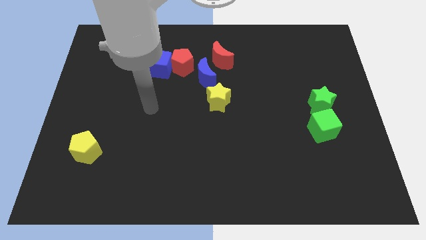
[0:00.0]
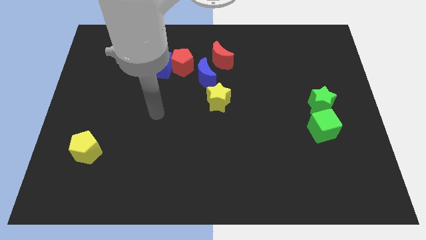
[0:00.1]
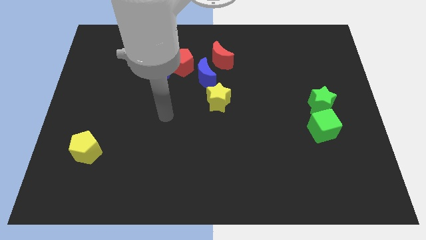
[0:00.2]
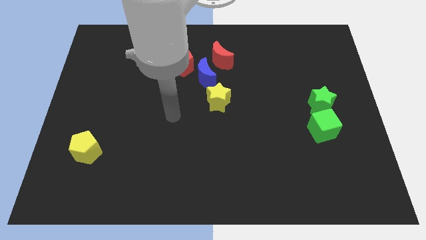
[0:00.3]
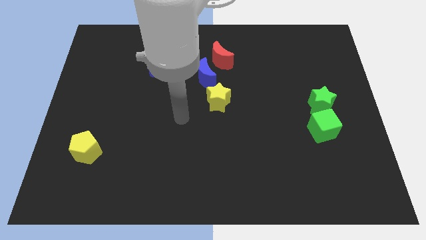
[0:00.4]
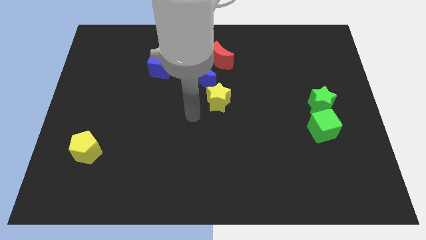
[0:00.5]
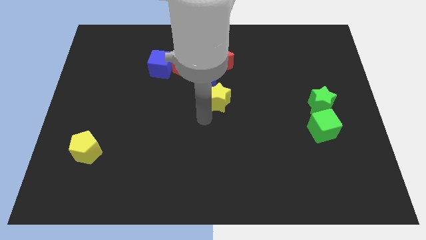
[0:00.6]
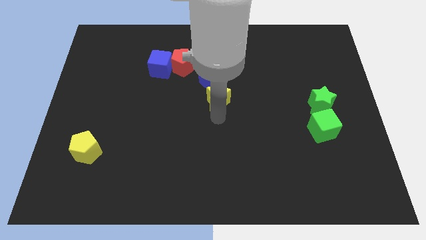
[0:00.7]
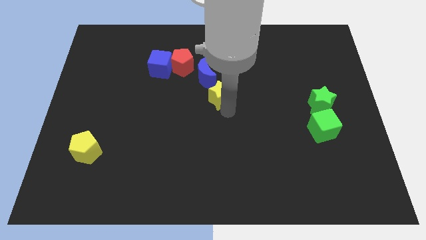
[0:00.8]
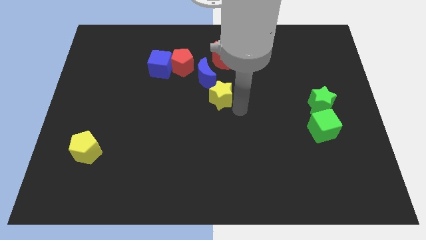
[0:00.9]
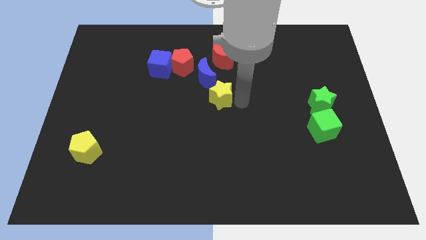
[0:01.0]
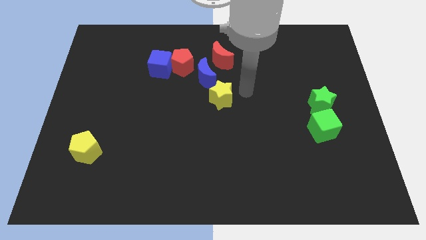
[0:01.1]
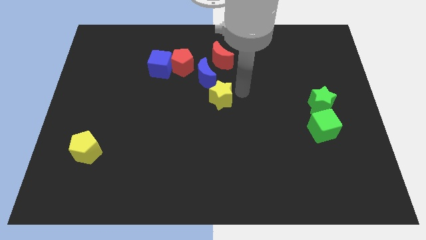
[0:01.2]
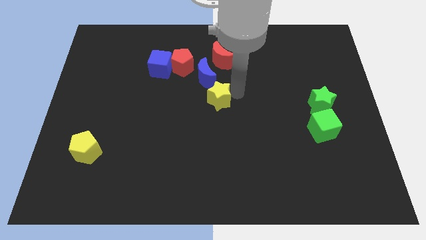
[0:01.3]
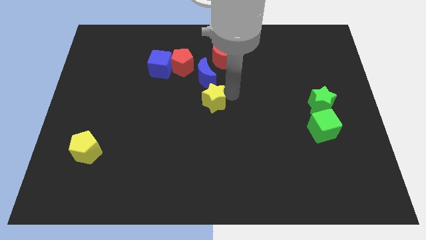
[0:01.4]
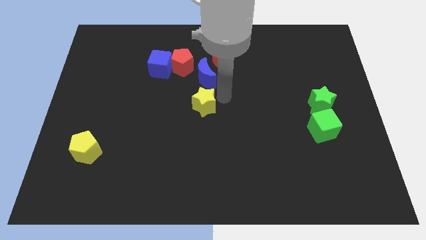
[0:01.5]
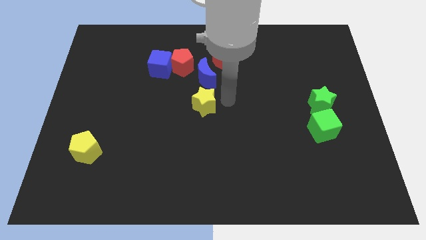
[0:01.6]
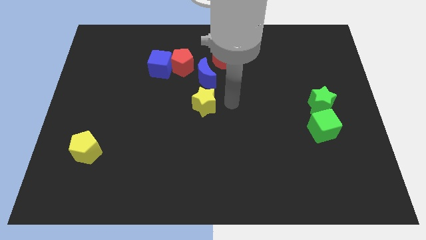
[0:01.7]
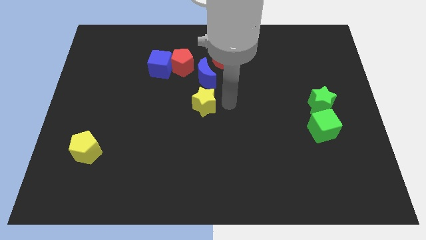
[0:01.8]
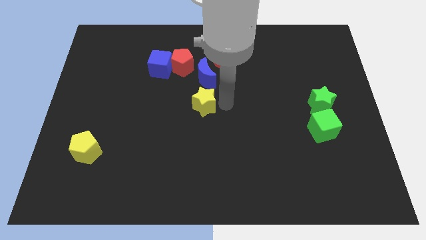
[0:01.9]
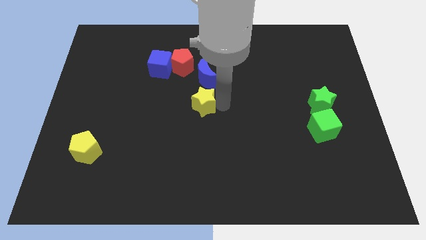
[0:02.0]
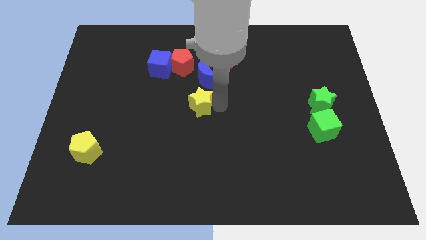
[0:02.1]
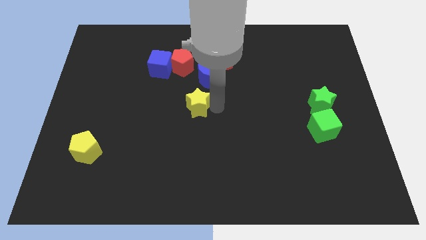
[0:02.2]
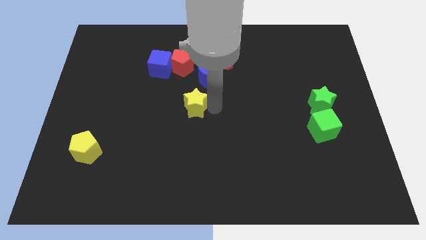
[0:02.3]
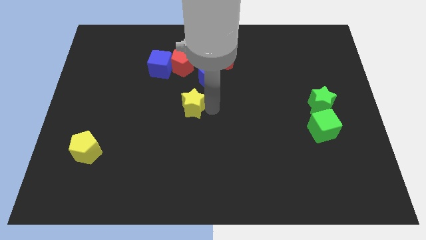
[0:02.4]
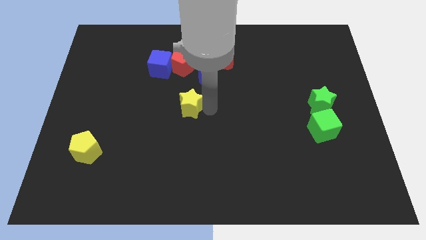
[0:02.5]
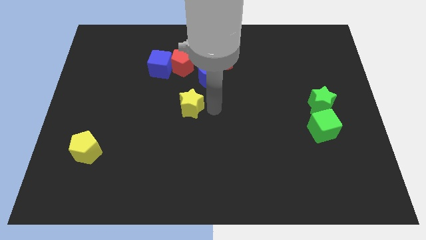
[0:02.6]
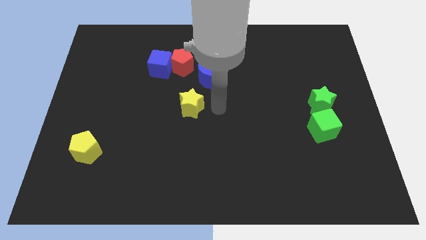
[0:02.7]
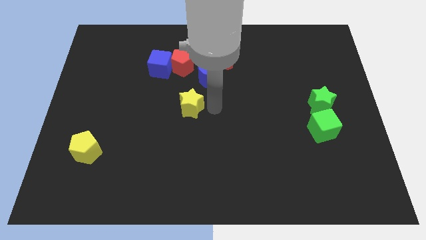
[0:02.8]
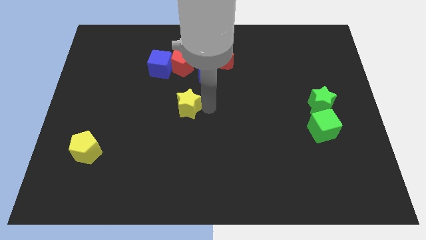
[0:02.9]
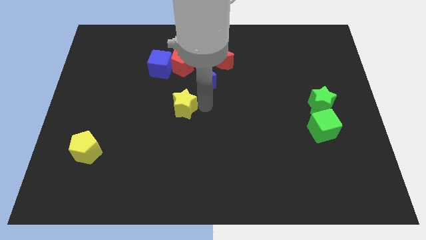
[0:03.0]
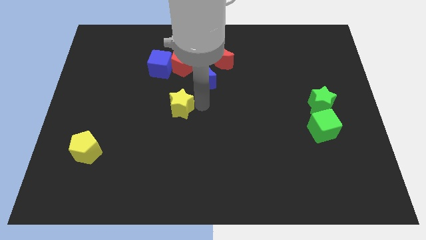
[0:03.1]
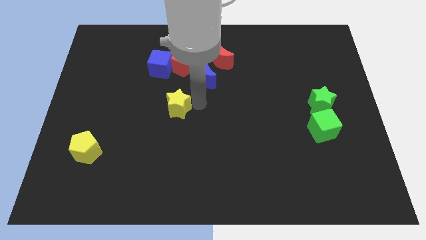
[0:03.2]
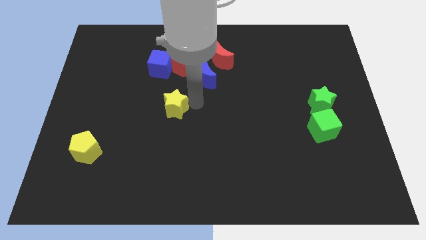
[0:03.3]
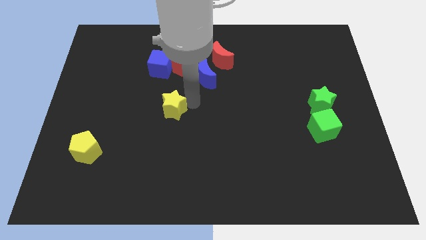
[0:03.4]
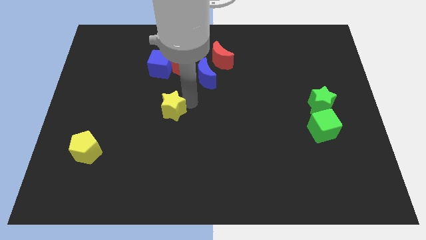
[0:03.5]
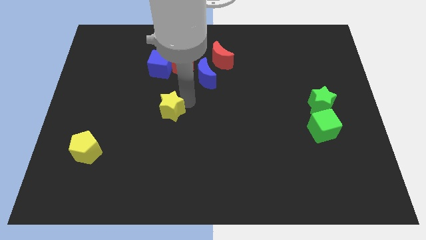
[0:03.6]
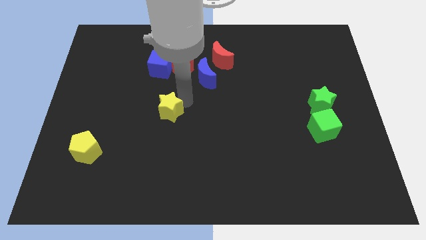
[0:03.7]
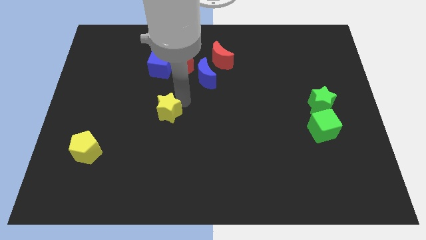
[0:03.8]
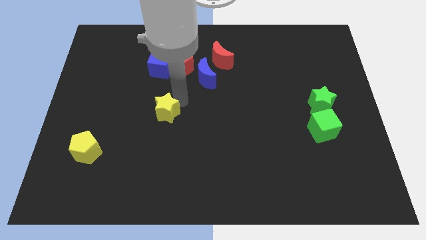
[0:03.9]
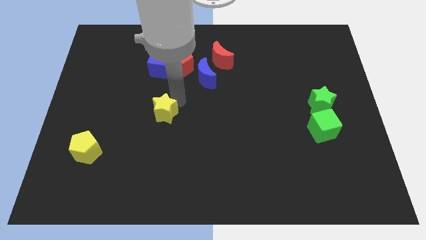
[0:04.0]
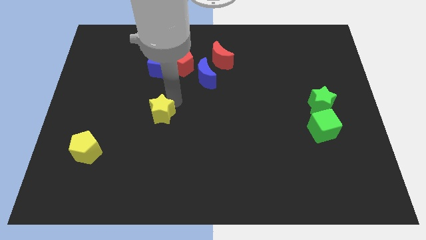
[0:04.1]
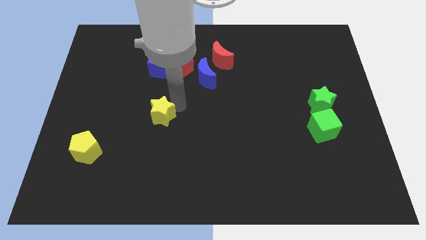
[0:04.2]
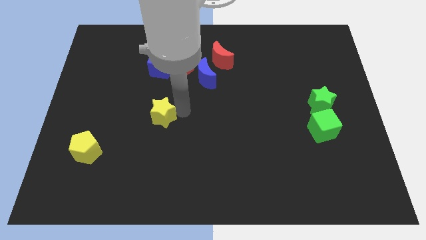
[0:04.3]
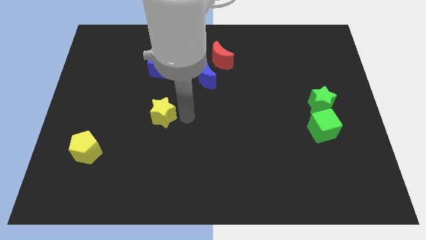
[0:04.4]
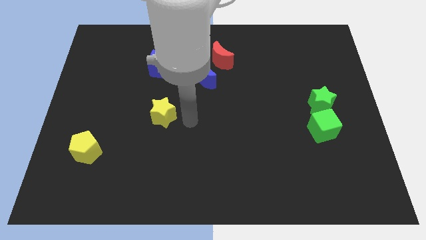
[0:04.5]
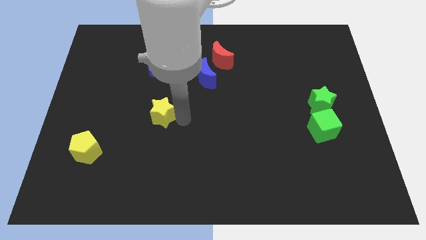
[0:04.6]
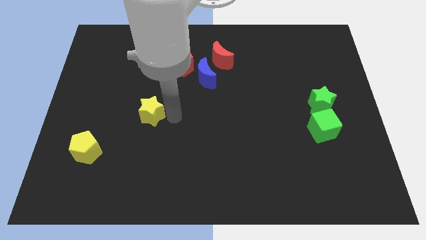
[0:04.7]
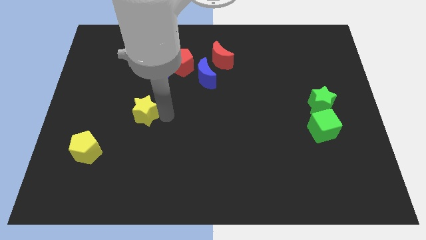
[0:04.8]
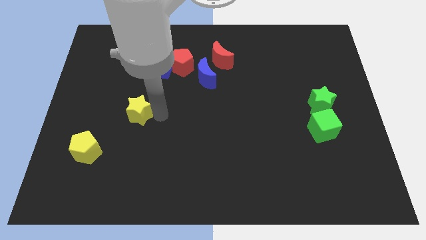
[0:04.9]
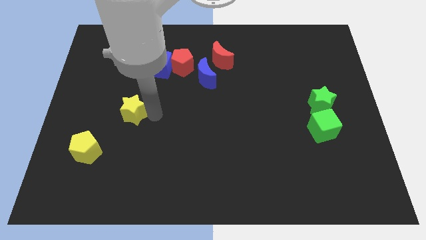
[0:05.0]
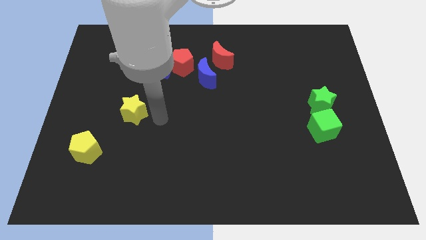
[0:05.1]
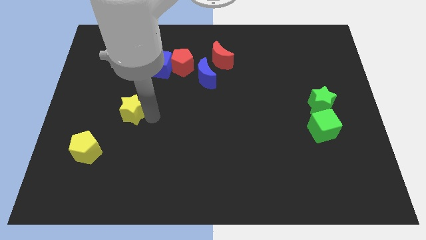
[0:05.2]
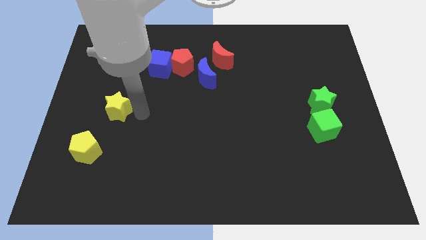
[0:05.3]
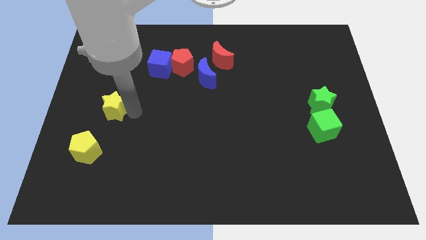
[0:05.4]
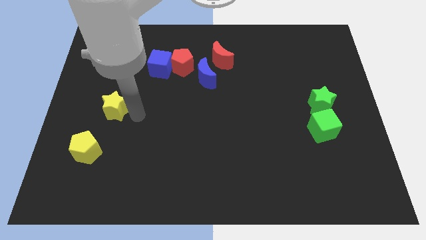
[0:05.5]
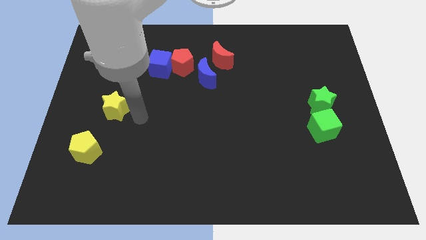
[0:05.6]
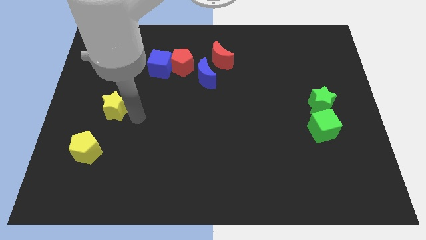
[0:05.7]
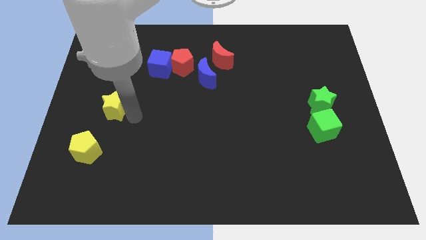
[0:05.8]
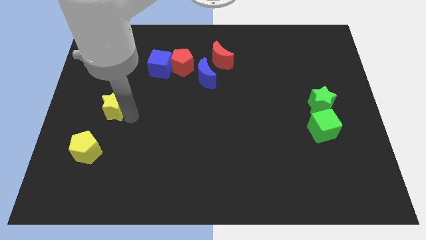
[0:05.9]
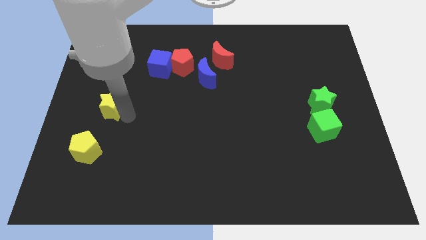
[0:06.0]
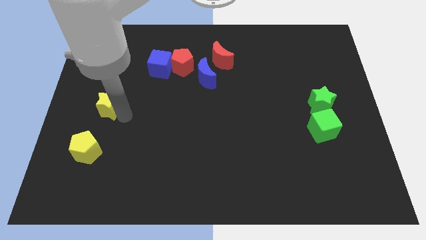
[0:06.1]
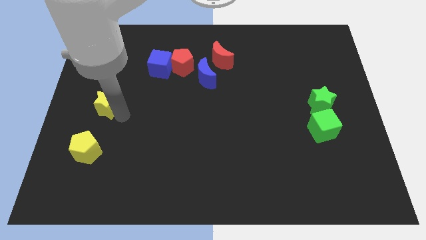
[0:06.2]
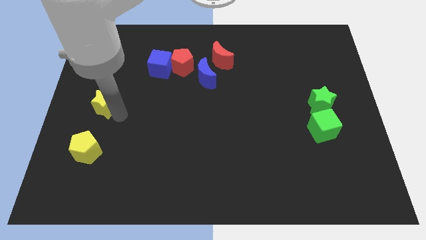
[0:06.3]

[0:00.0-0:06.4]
put the yellow star to the left side of the board

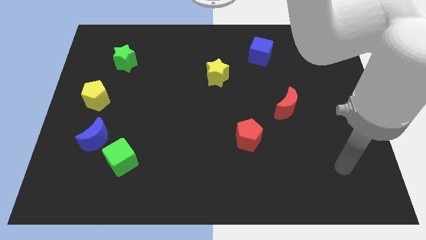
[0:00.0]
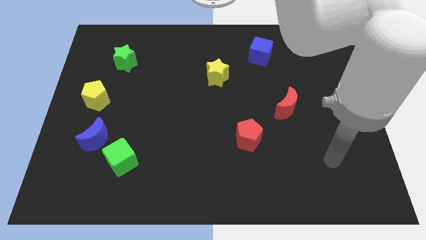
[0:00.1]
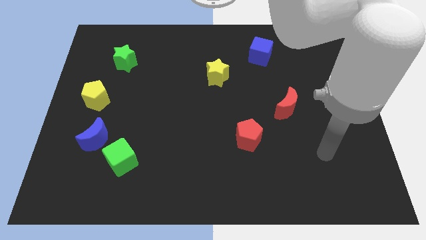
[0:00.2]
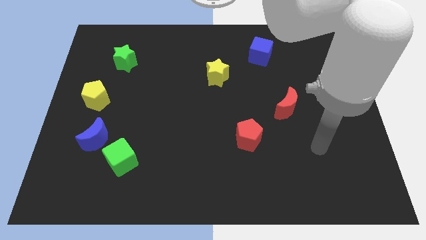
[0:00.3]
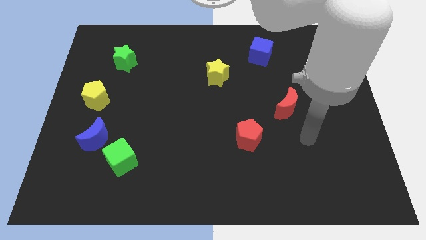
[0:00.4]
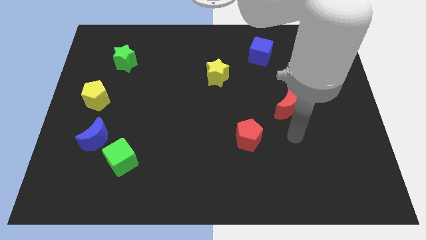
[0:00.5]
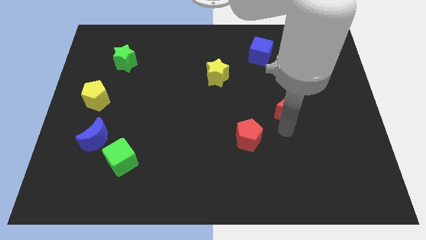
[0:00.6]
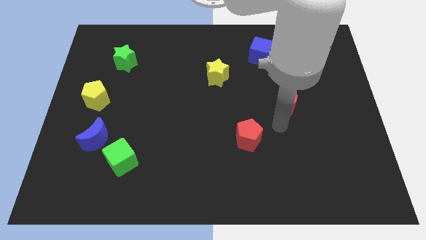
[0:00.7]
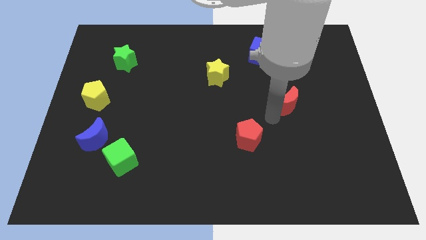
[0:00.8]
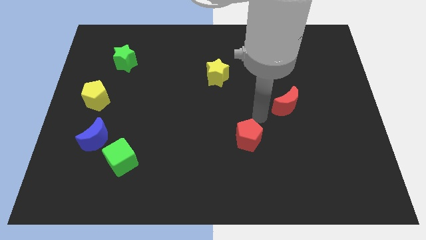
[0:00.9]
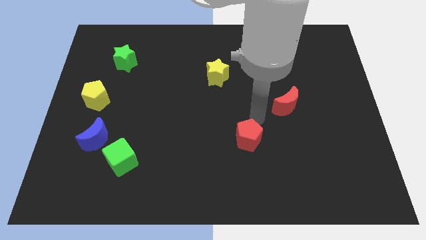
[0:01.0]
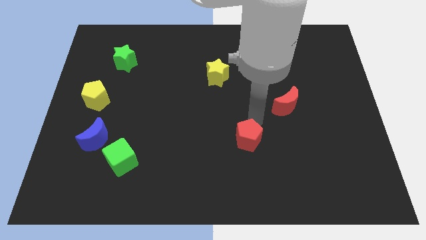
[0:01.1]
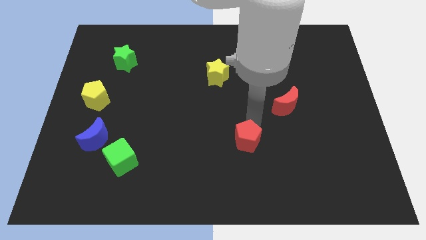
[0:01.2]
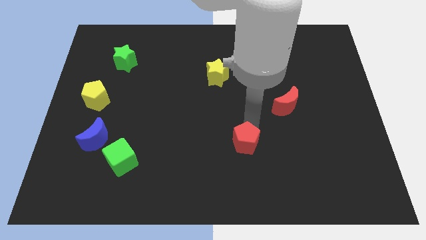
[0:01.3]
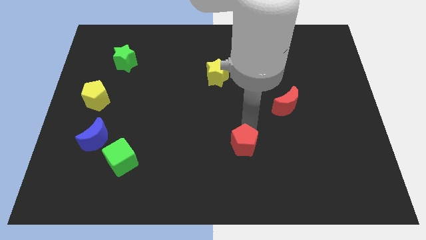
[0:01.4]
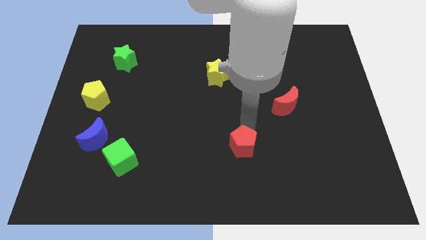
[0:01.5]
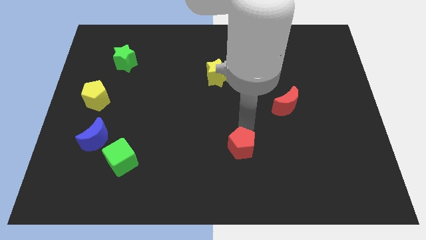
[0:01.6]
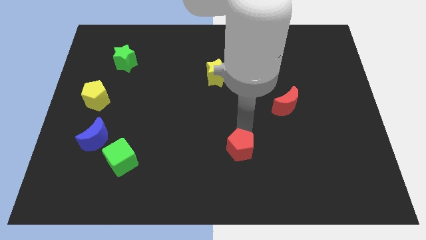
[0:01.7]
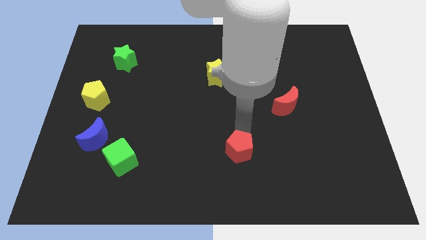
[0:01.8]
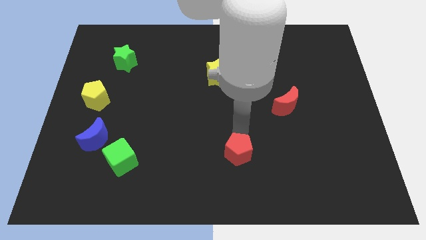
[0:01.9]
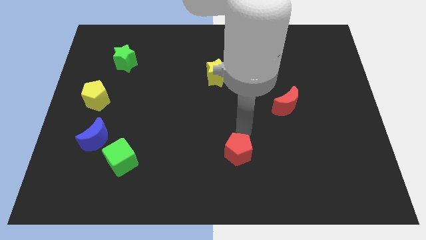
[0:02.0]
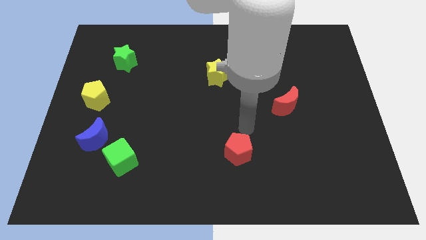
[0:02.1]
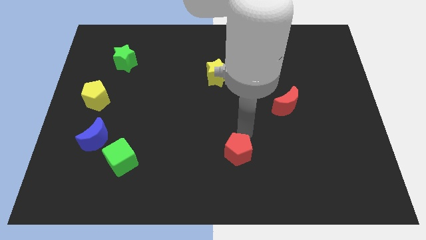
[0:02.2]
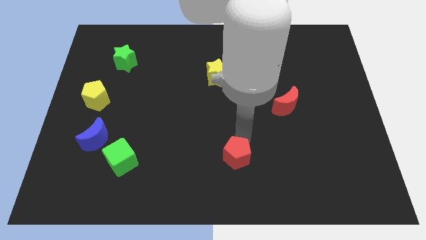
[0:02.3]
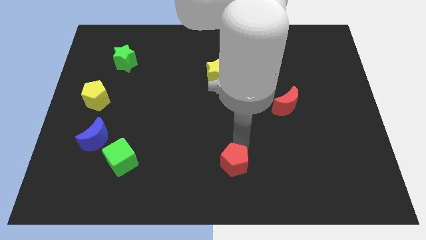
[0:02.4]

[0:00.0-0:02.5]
put the red pentagon to the bottom
